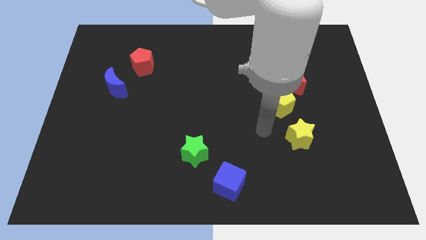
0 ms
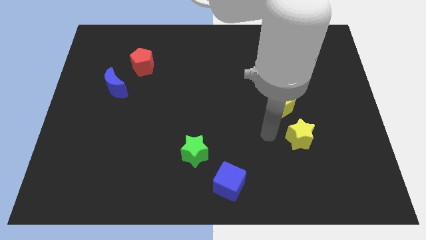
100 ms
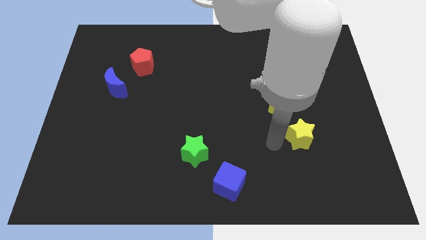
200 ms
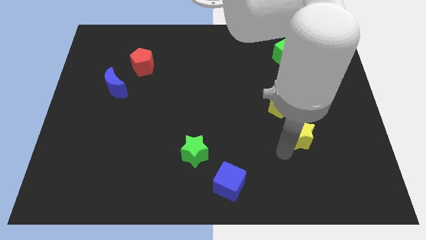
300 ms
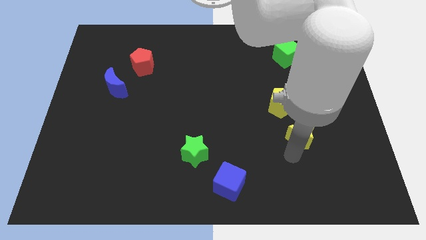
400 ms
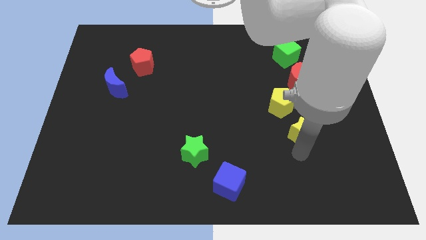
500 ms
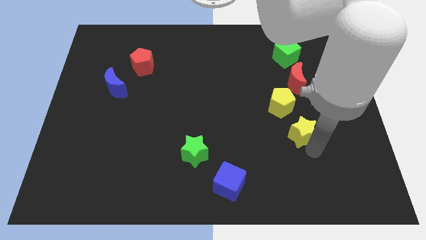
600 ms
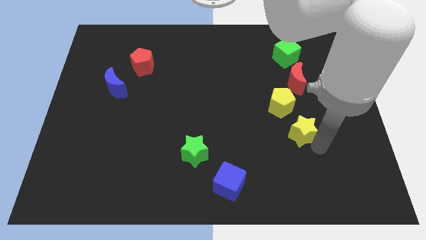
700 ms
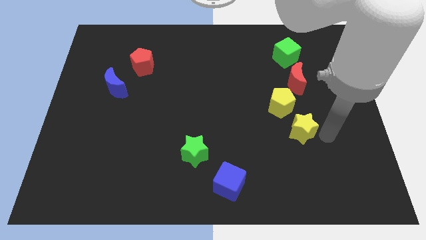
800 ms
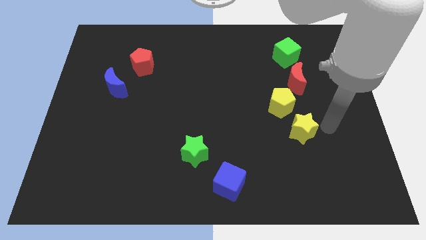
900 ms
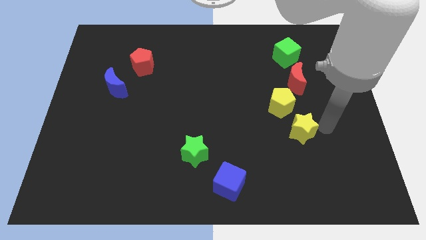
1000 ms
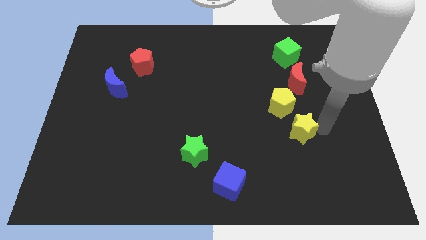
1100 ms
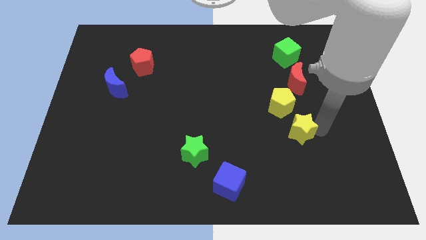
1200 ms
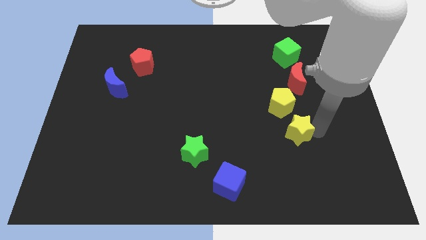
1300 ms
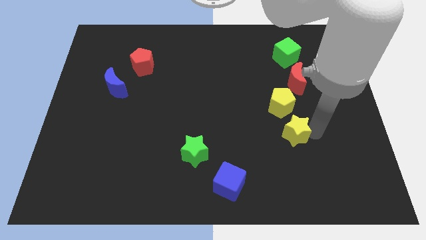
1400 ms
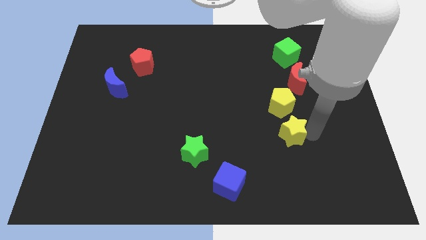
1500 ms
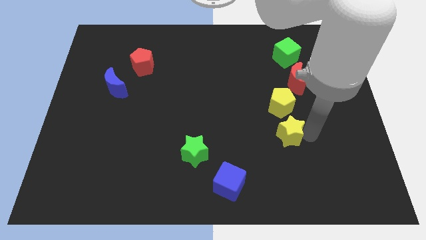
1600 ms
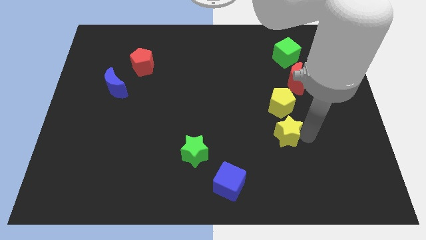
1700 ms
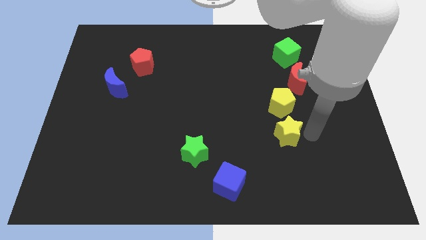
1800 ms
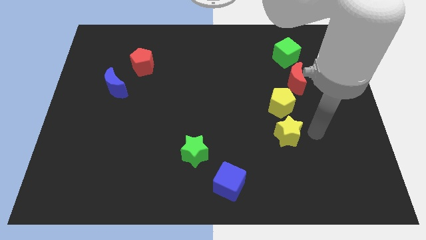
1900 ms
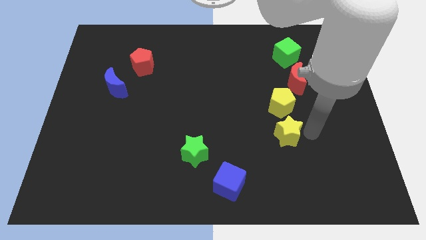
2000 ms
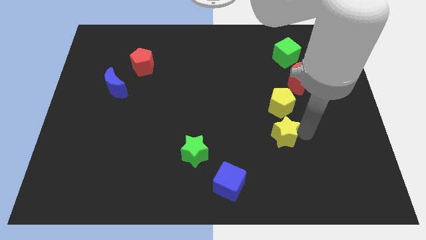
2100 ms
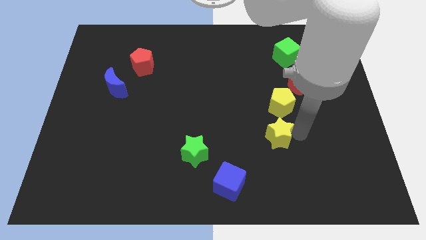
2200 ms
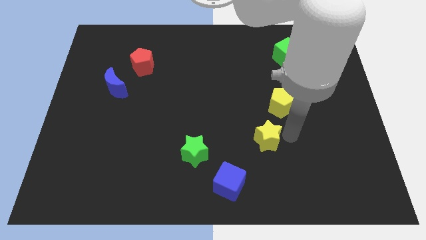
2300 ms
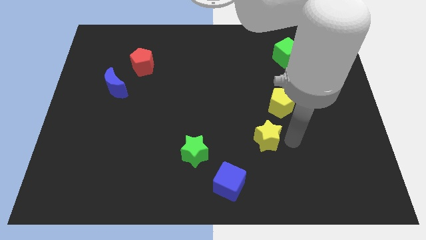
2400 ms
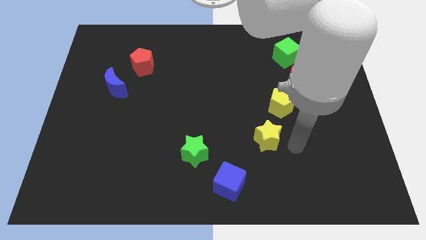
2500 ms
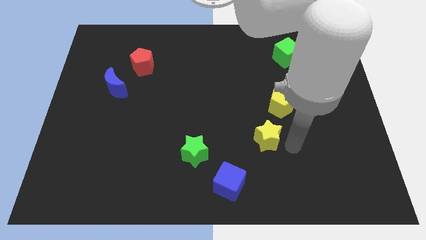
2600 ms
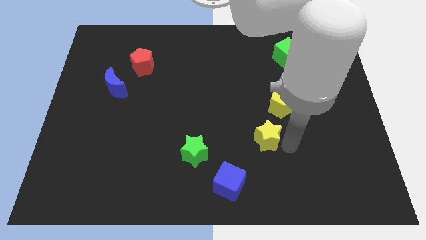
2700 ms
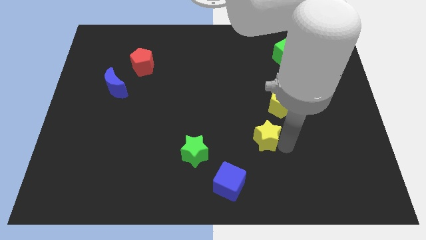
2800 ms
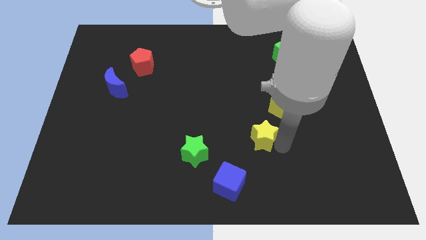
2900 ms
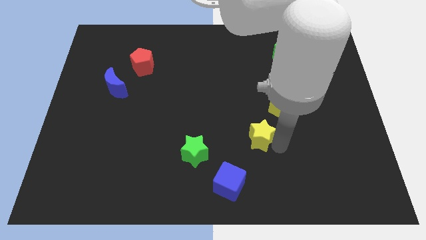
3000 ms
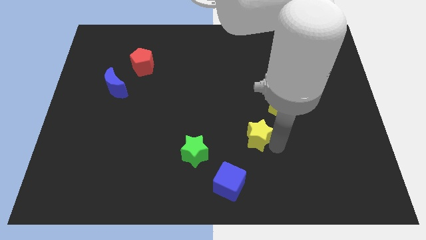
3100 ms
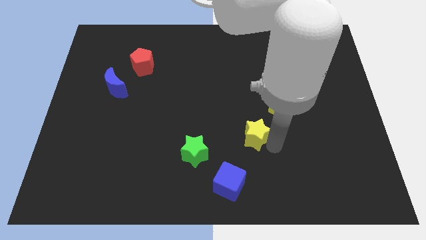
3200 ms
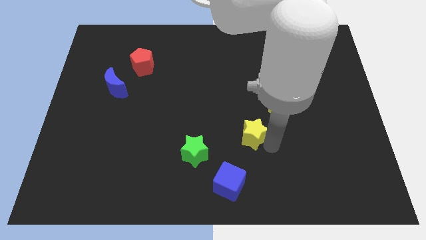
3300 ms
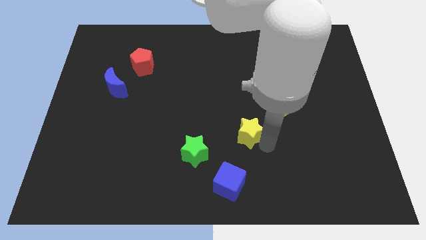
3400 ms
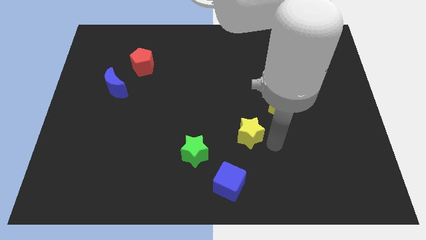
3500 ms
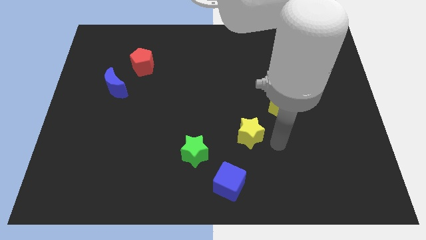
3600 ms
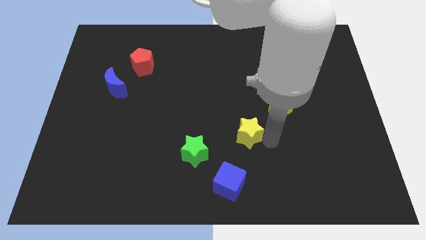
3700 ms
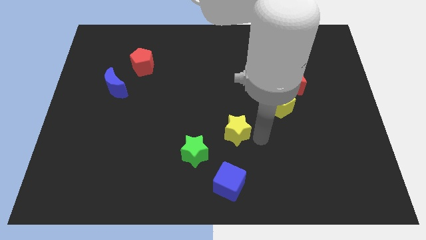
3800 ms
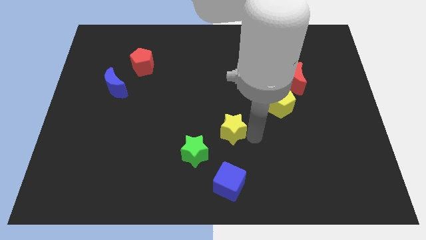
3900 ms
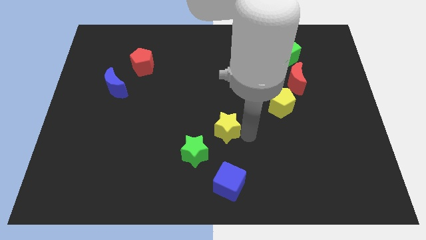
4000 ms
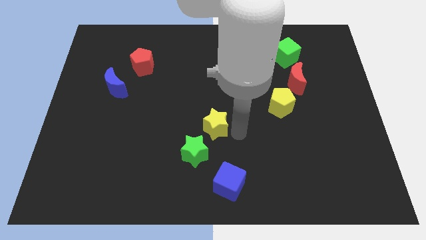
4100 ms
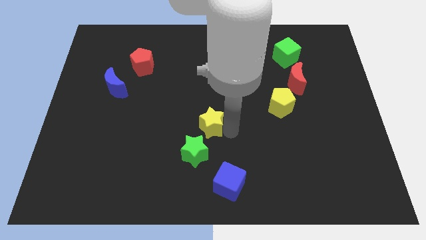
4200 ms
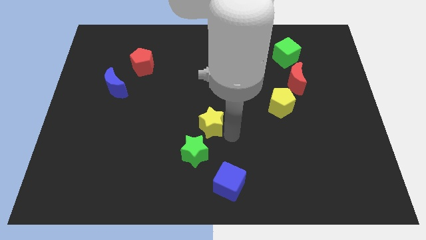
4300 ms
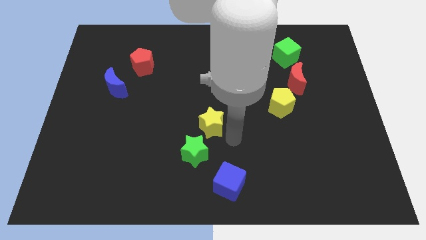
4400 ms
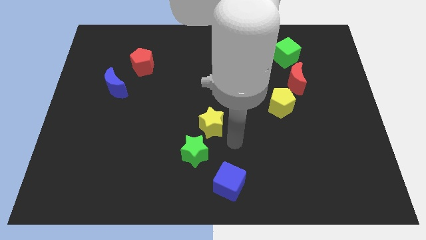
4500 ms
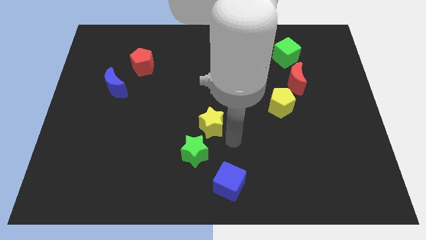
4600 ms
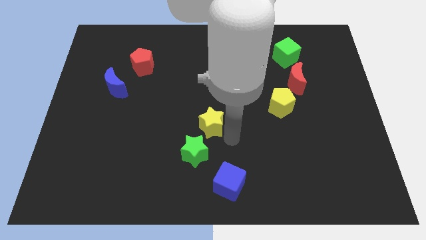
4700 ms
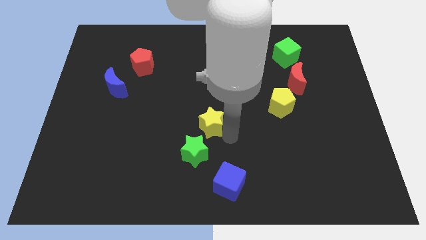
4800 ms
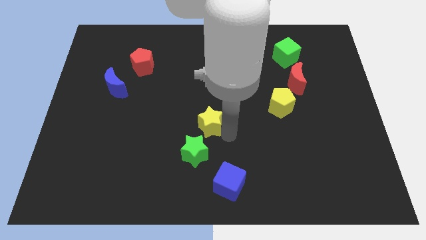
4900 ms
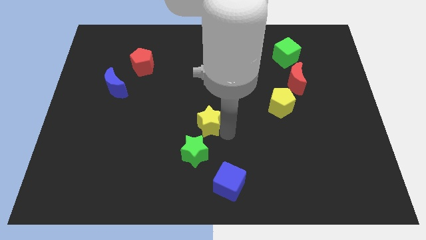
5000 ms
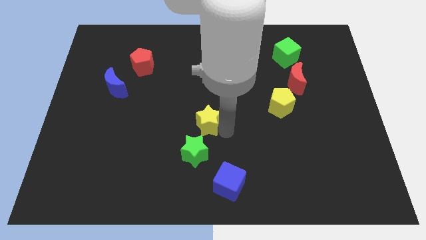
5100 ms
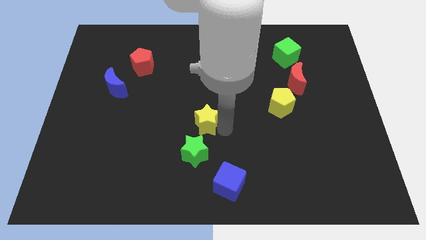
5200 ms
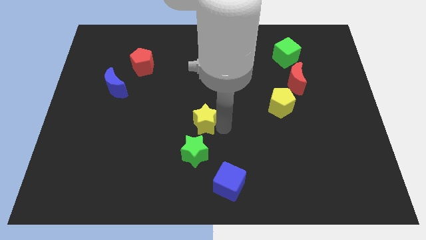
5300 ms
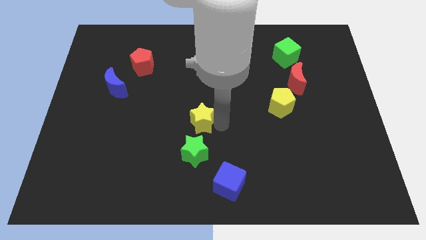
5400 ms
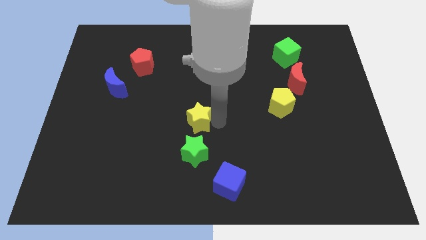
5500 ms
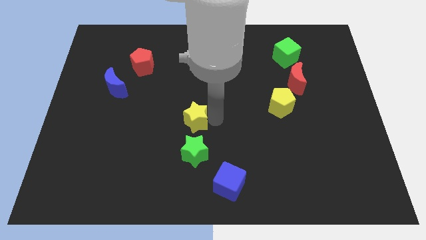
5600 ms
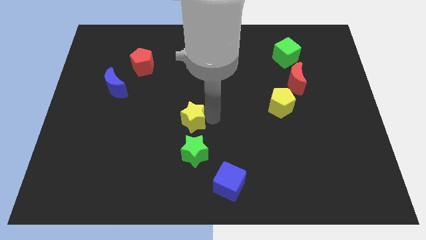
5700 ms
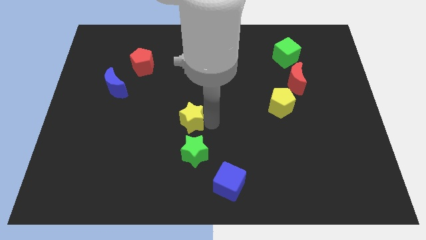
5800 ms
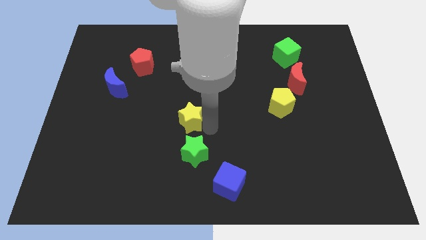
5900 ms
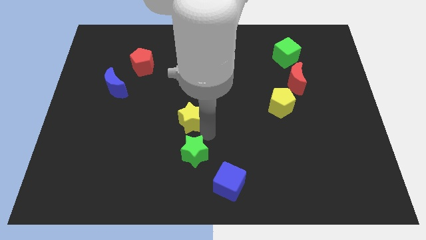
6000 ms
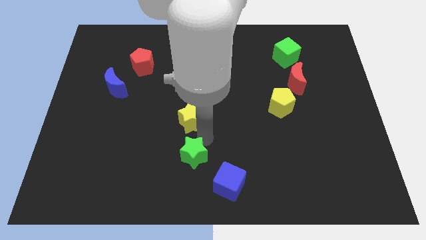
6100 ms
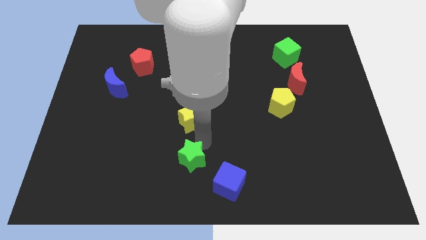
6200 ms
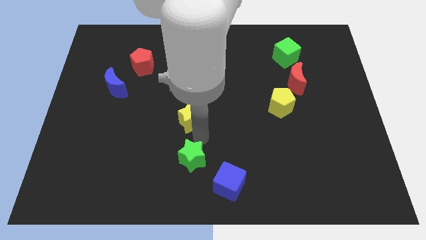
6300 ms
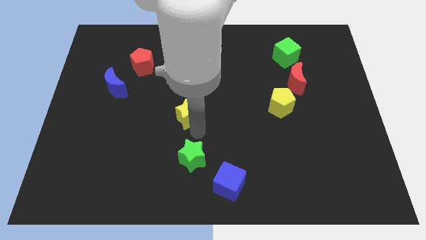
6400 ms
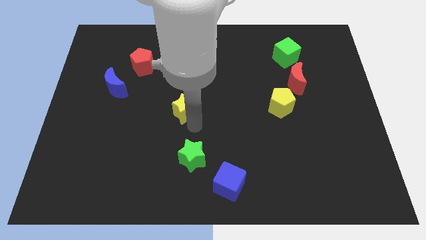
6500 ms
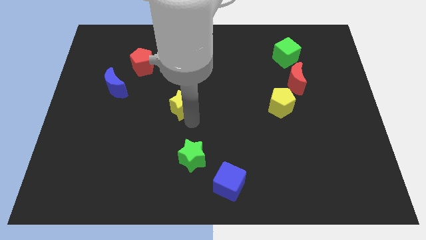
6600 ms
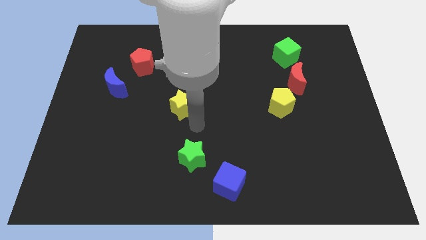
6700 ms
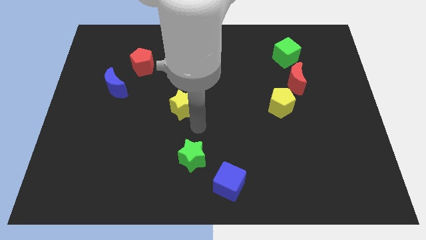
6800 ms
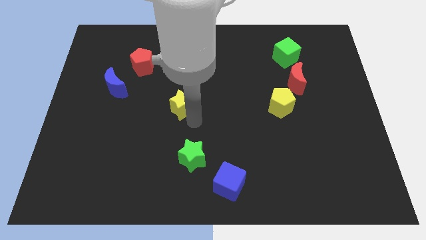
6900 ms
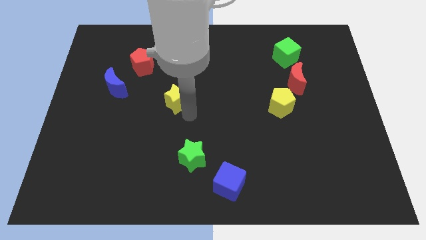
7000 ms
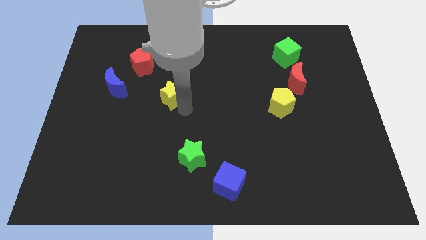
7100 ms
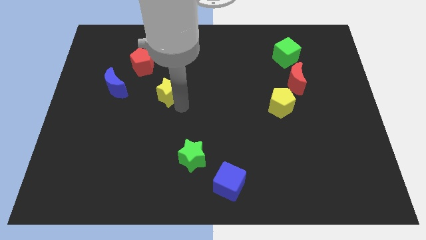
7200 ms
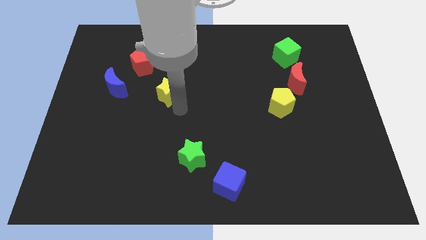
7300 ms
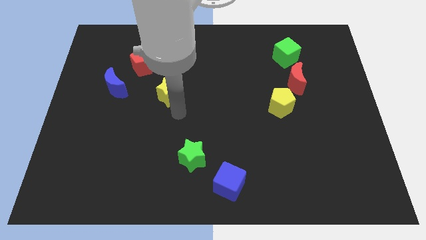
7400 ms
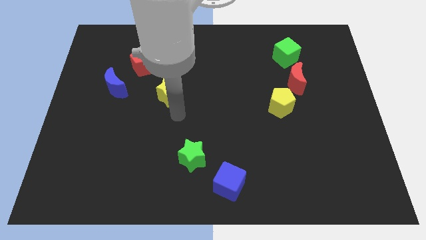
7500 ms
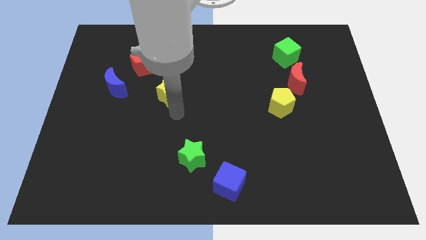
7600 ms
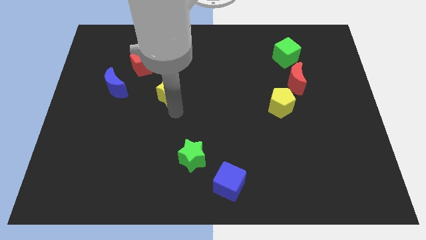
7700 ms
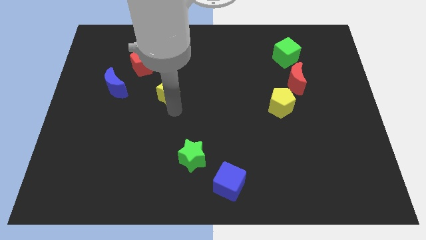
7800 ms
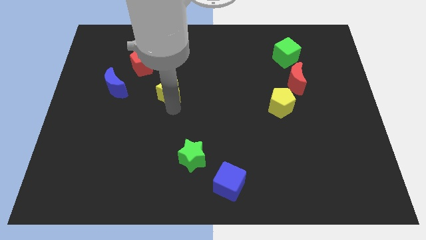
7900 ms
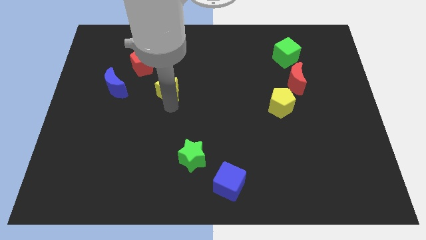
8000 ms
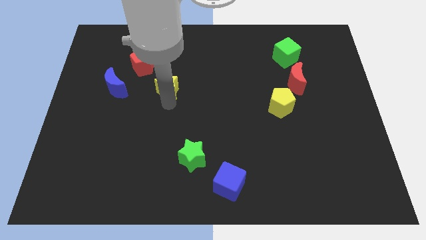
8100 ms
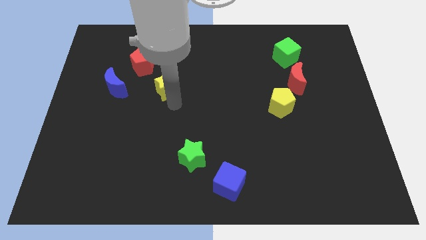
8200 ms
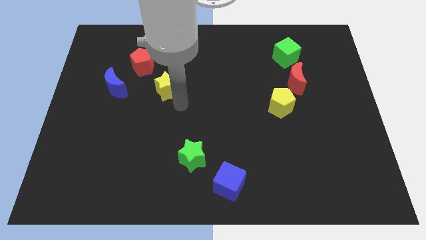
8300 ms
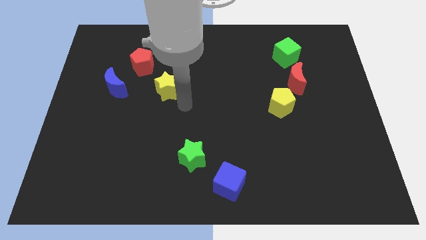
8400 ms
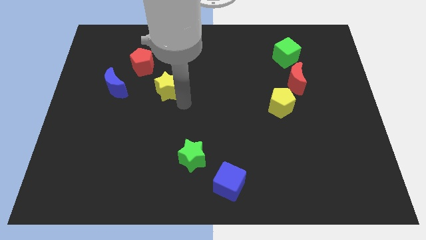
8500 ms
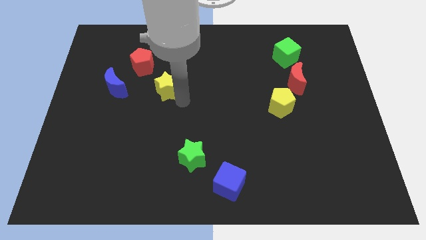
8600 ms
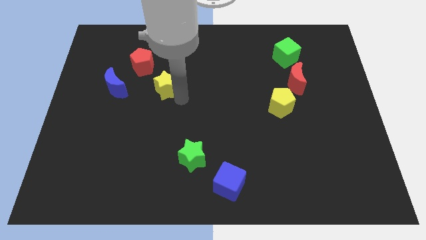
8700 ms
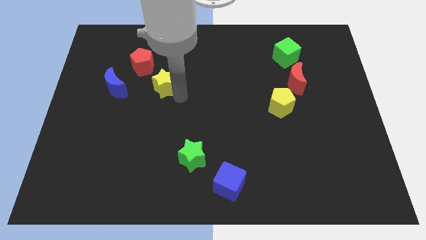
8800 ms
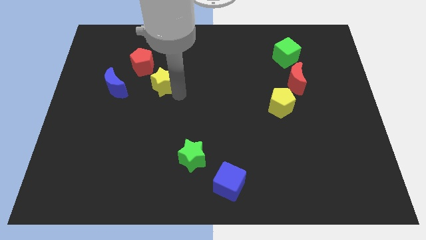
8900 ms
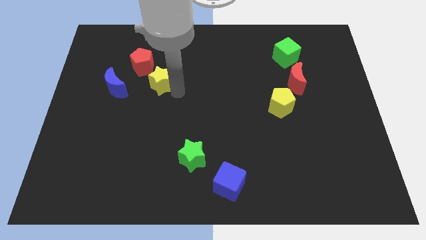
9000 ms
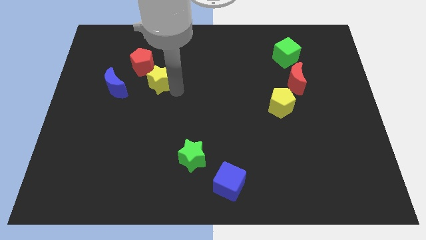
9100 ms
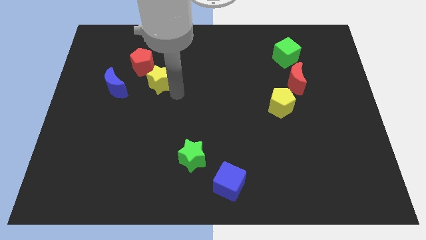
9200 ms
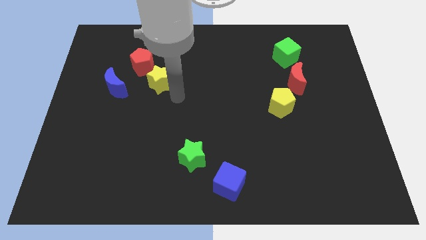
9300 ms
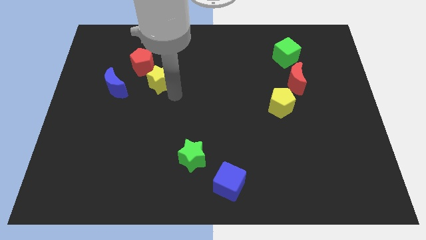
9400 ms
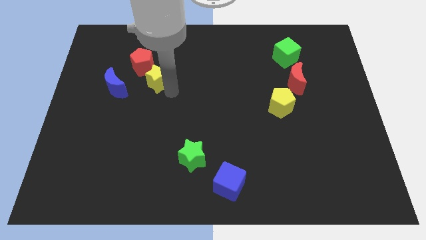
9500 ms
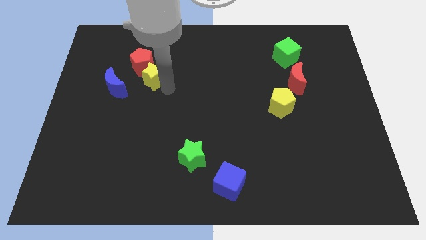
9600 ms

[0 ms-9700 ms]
push the yellow star close to the red pentagon
